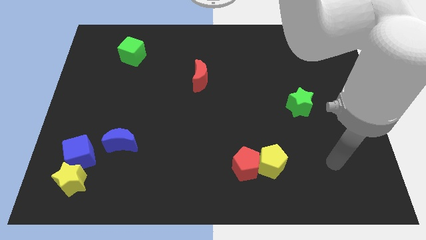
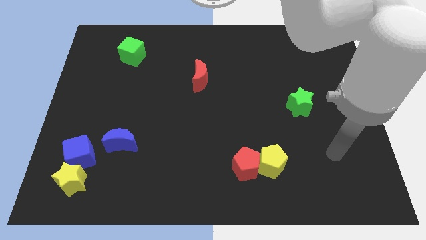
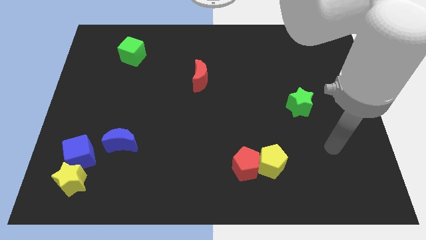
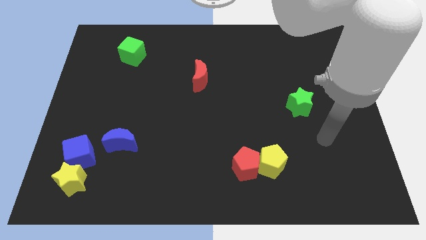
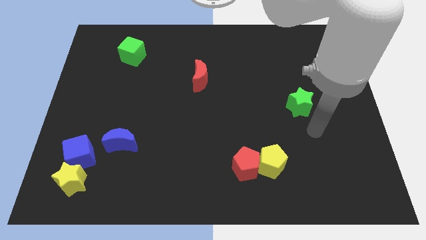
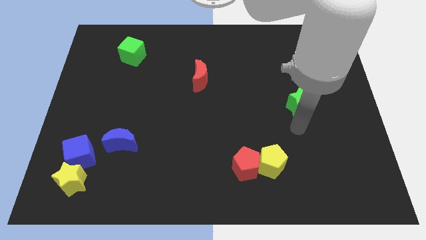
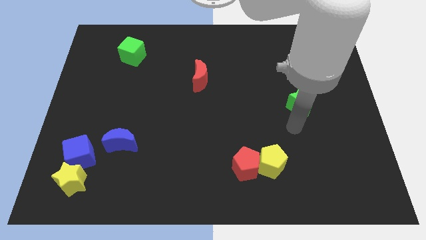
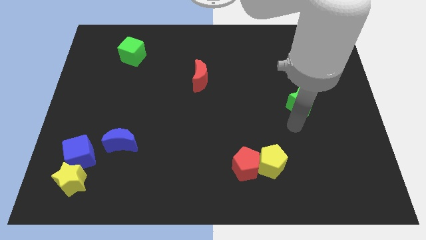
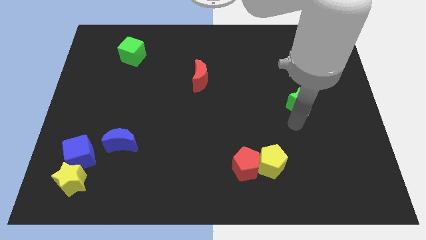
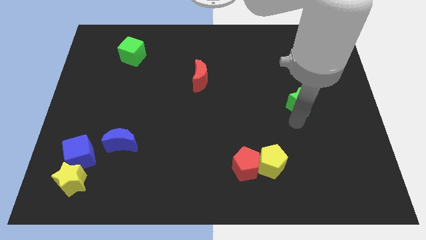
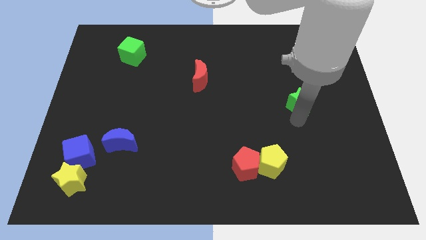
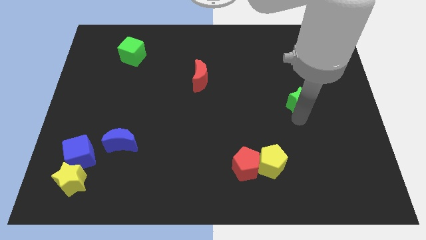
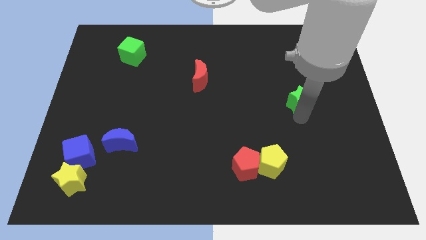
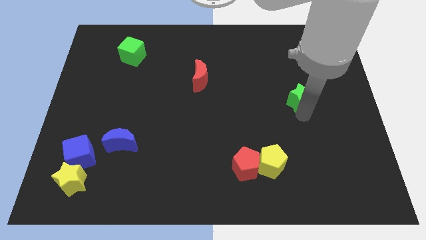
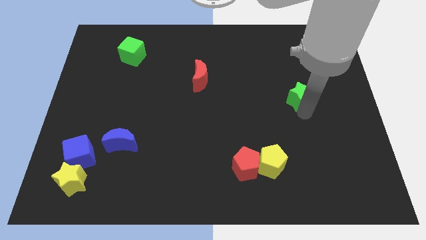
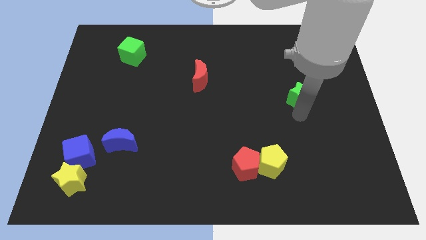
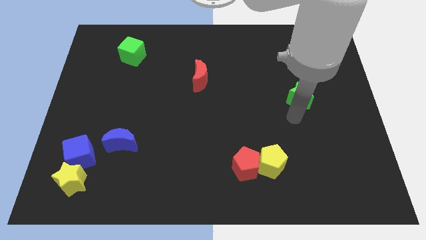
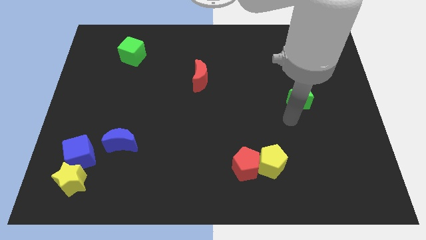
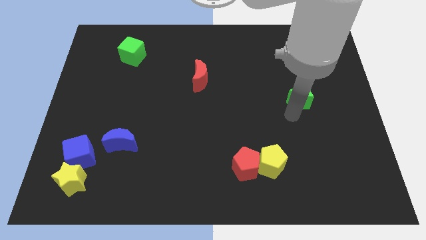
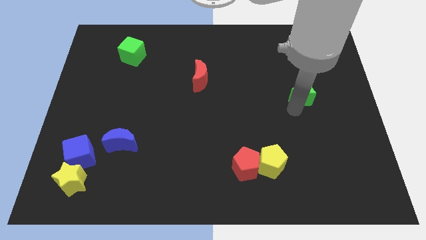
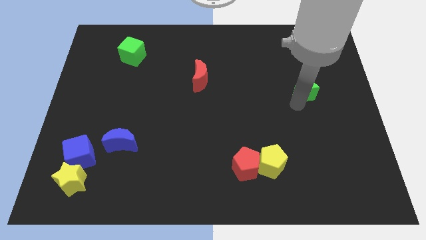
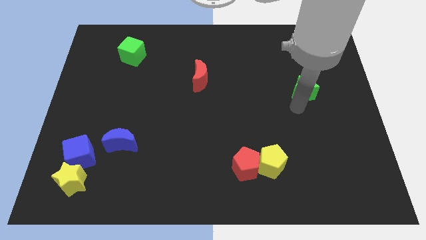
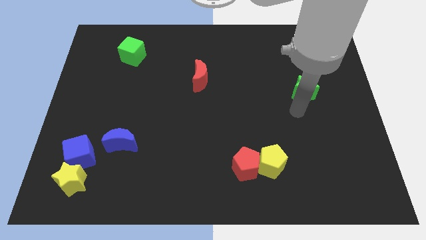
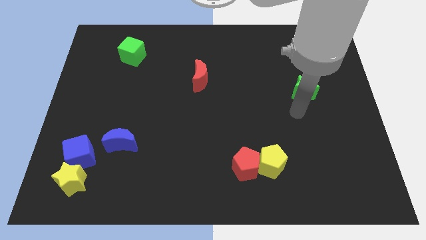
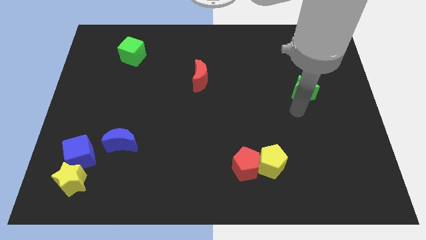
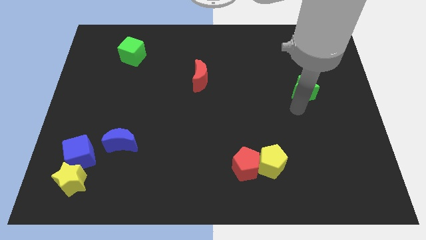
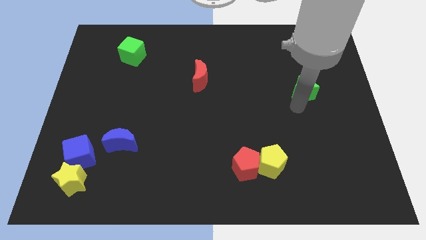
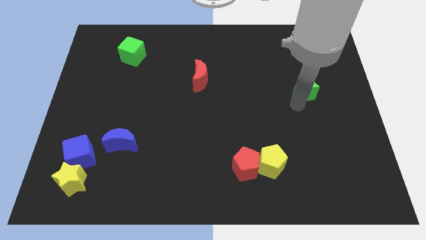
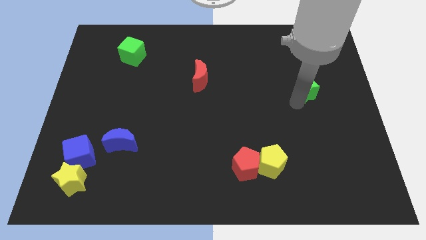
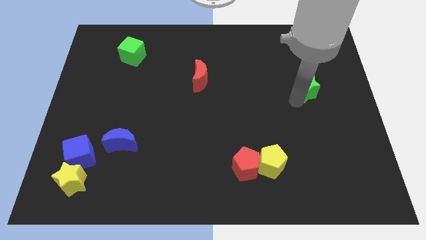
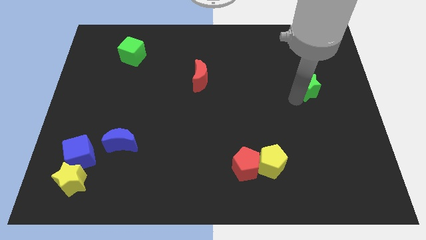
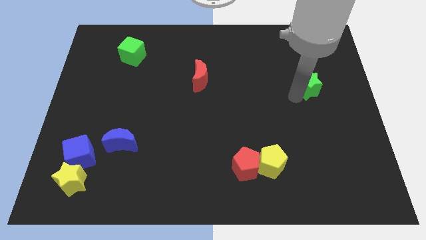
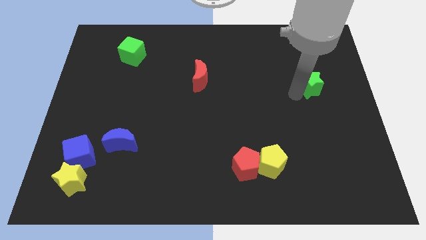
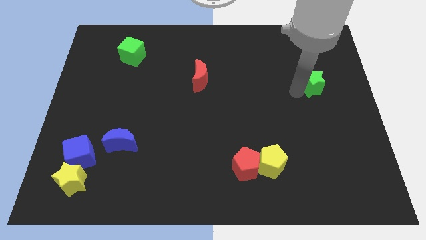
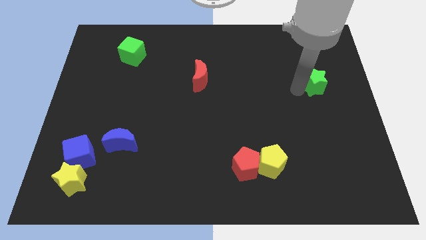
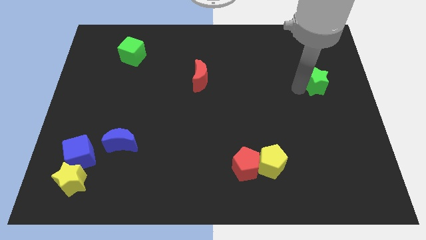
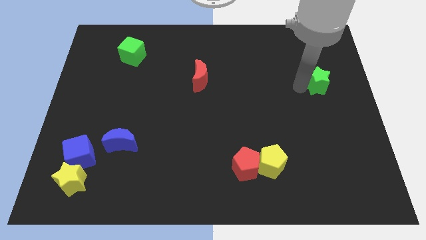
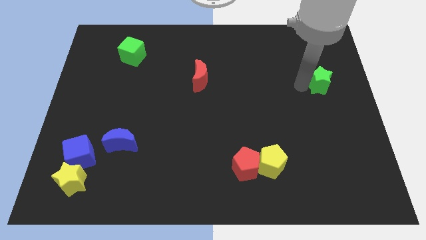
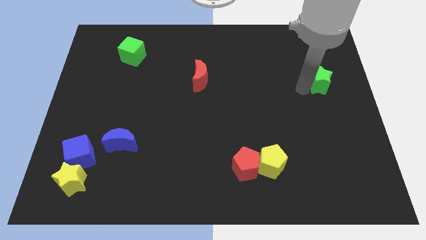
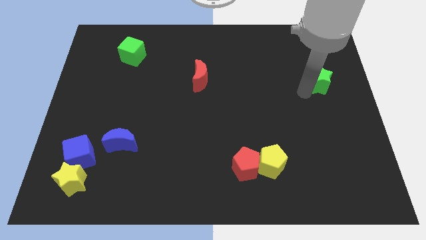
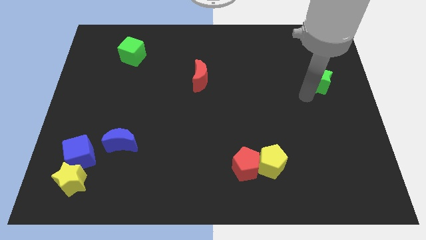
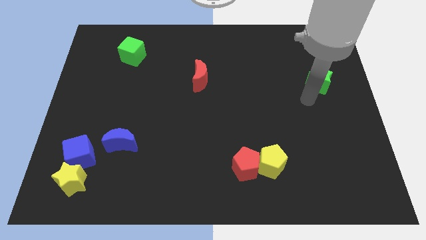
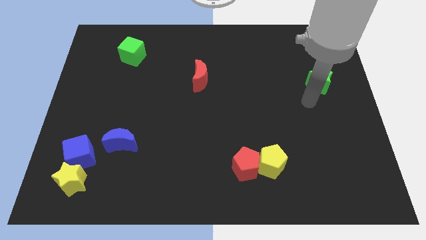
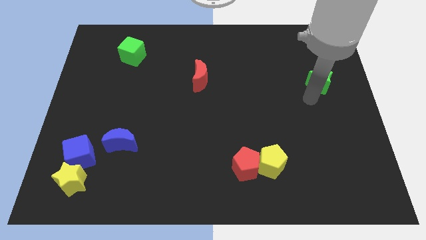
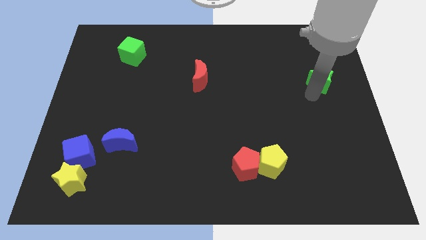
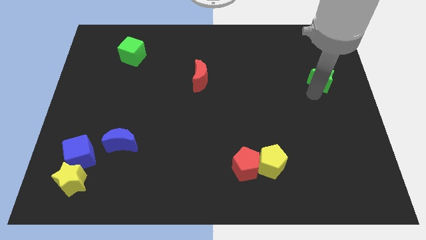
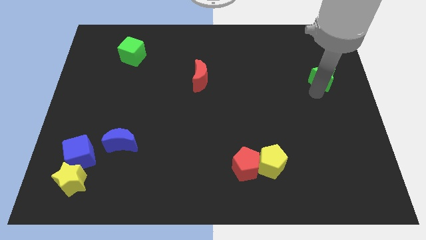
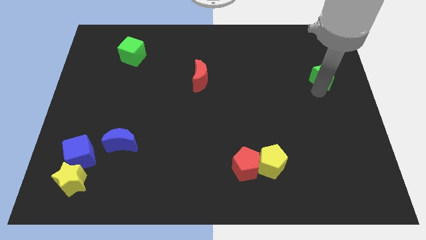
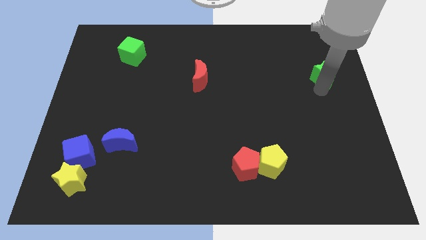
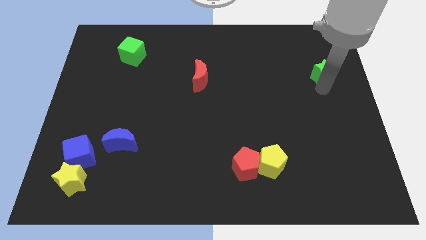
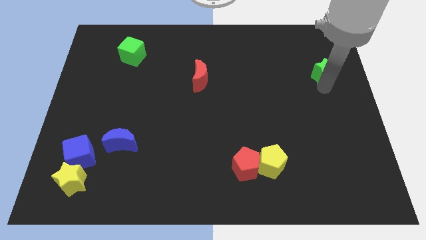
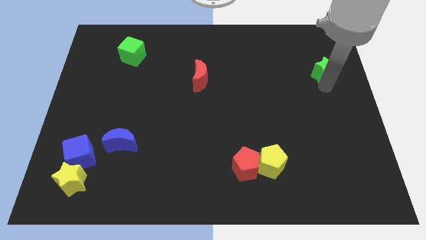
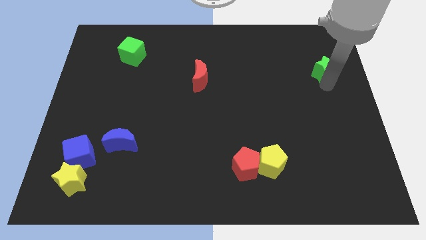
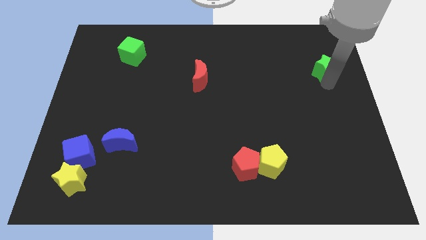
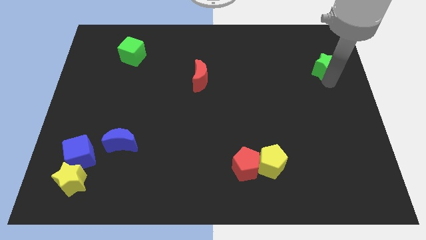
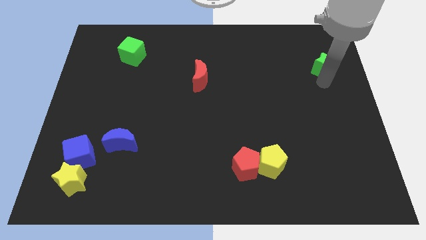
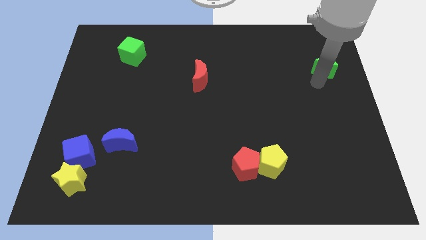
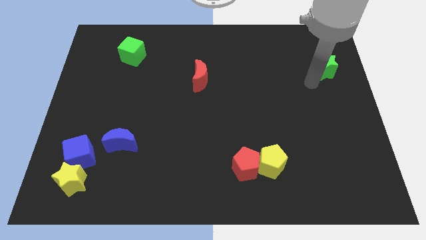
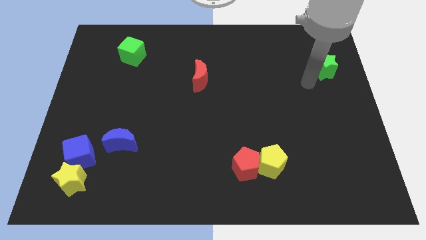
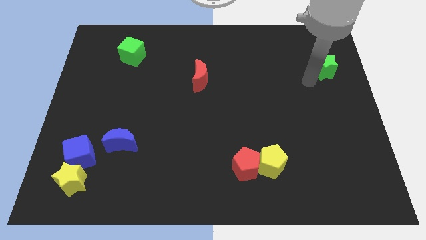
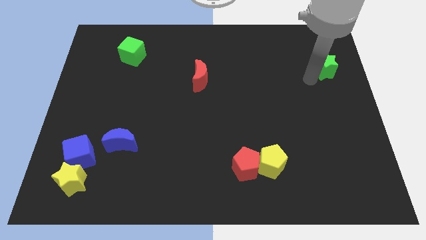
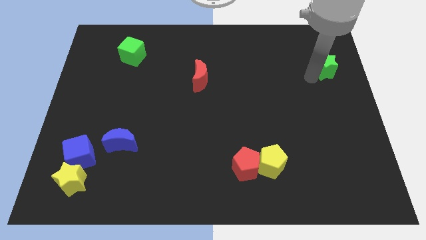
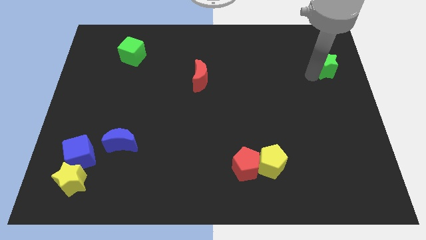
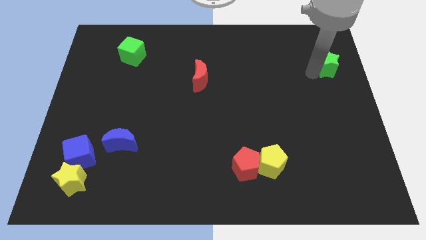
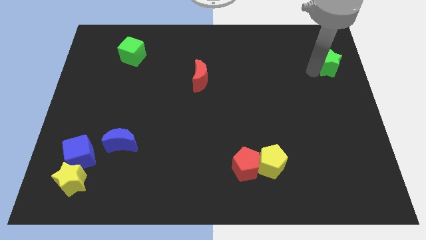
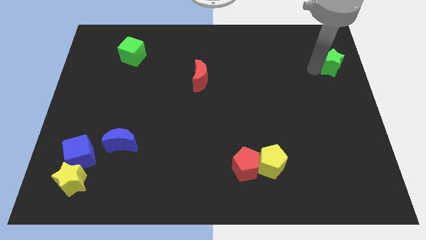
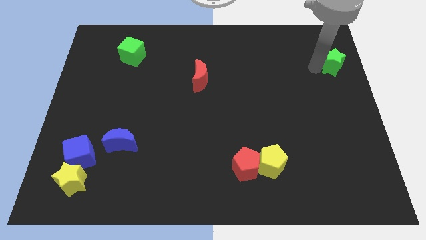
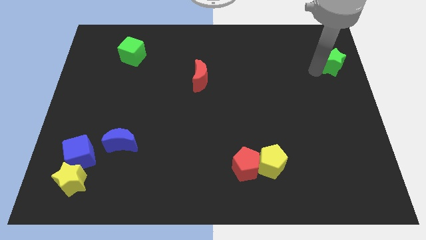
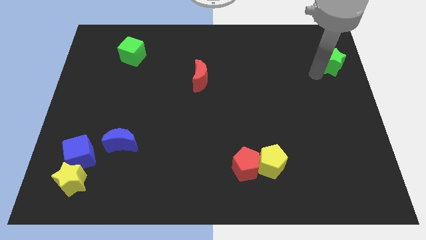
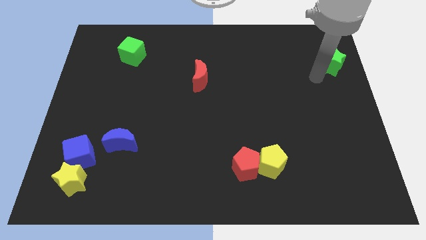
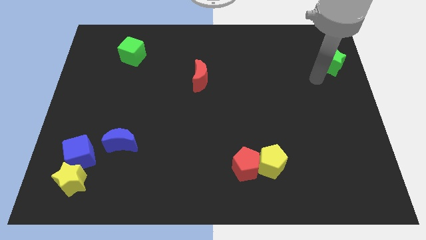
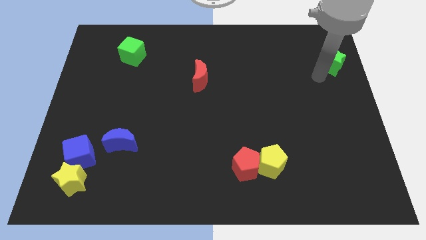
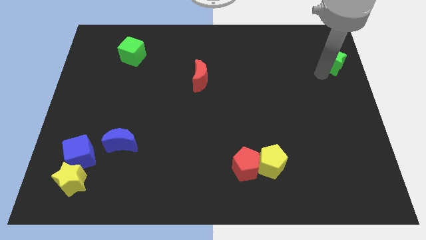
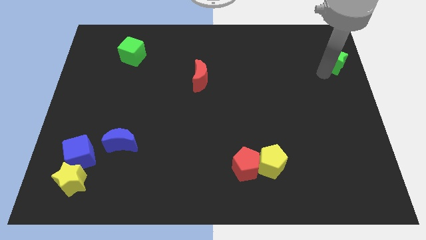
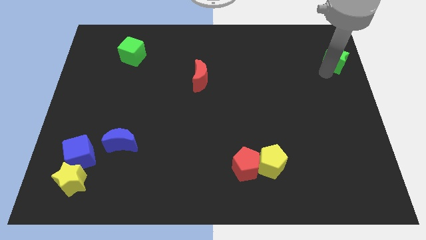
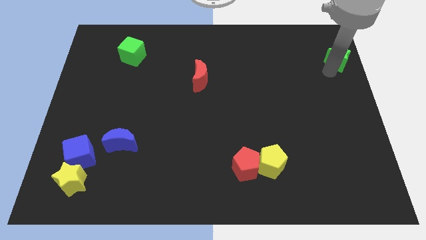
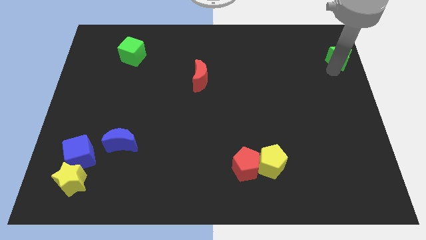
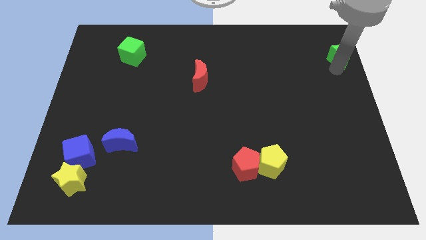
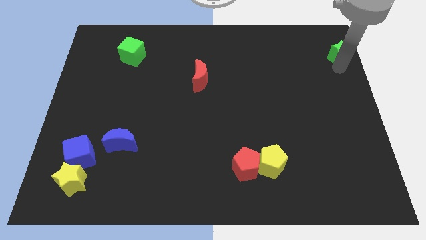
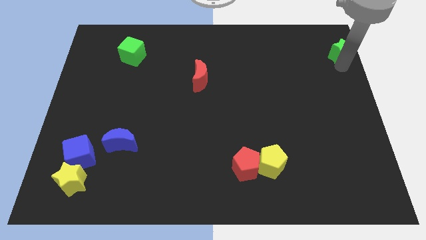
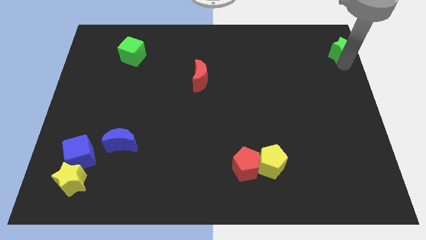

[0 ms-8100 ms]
put the green star to the upper right corner
